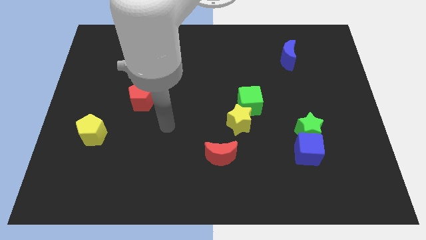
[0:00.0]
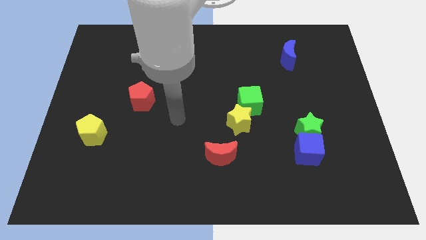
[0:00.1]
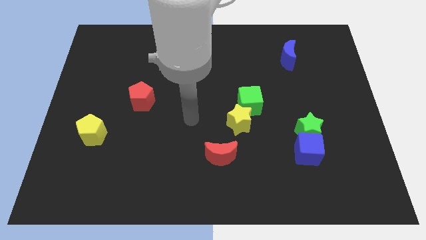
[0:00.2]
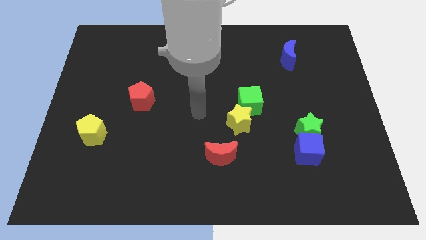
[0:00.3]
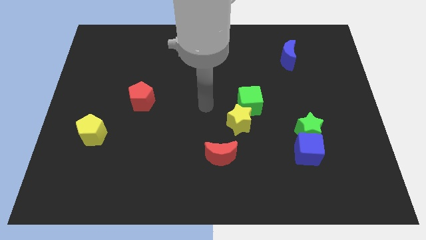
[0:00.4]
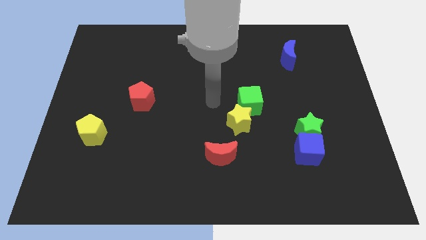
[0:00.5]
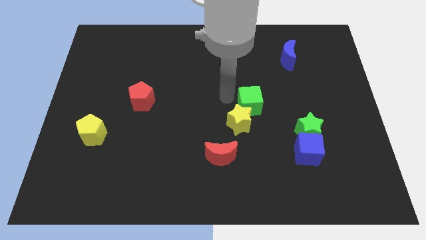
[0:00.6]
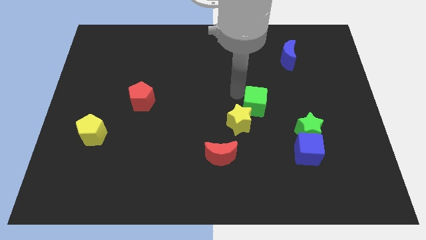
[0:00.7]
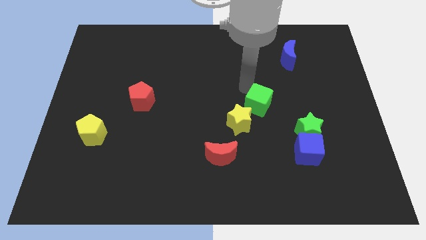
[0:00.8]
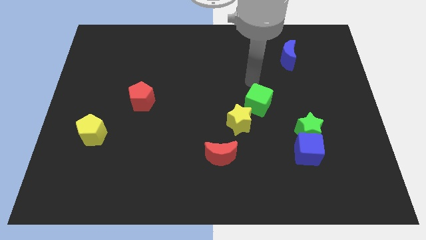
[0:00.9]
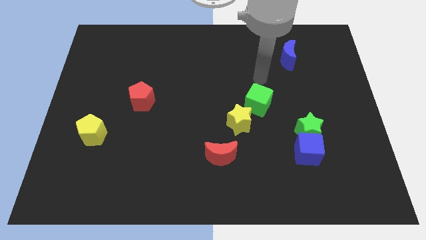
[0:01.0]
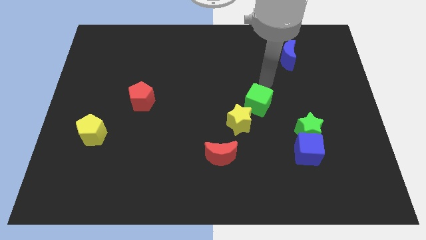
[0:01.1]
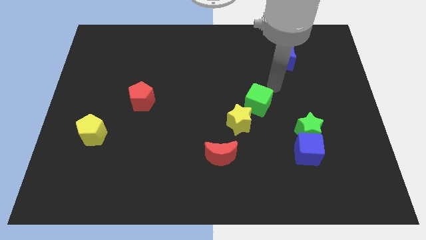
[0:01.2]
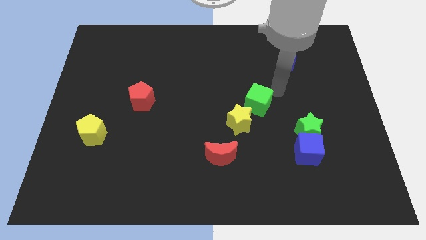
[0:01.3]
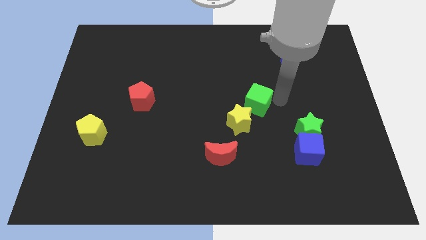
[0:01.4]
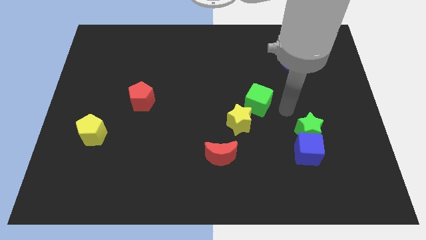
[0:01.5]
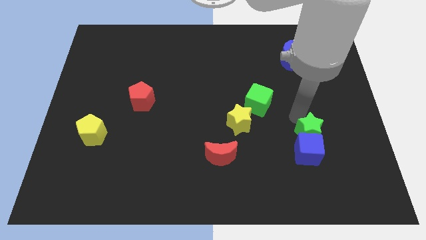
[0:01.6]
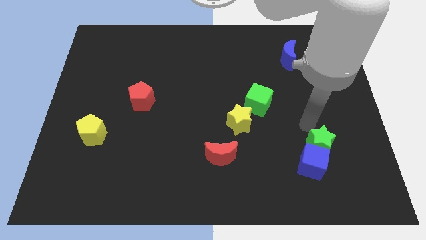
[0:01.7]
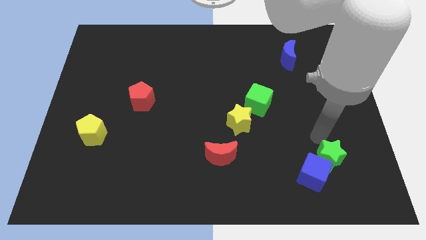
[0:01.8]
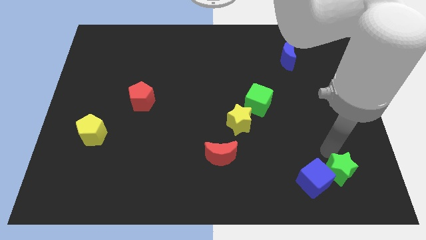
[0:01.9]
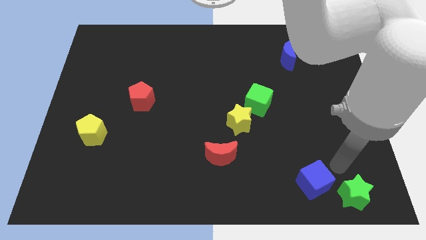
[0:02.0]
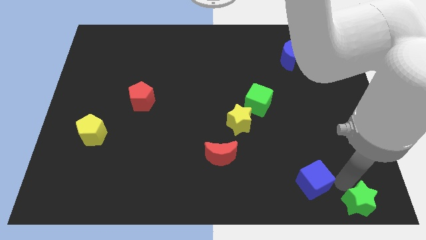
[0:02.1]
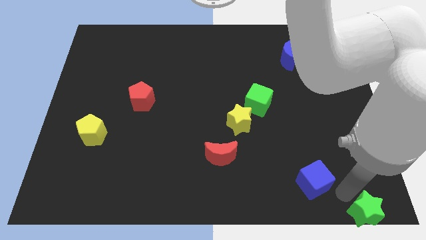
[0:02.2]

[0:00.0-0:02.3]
separate the blue cube from the green star

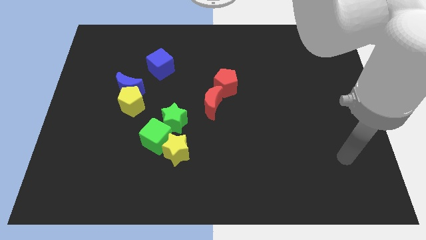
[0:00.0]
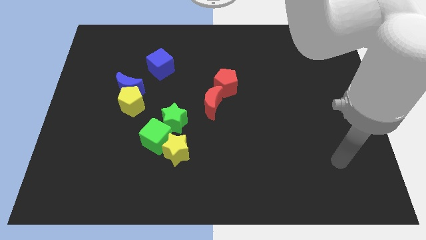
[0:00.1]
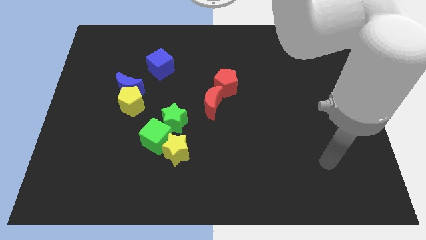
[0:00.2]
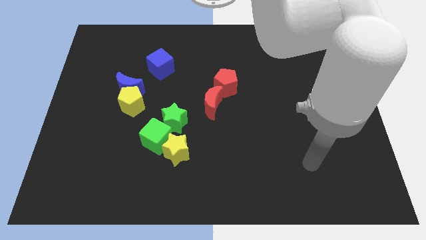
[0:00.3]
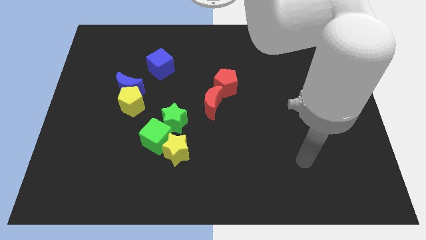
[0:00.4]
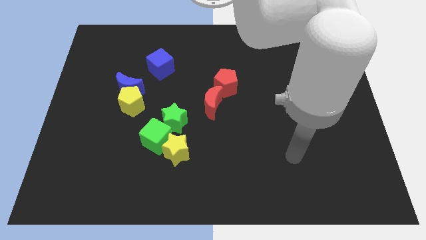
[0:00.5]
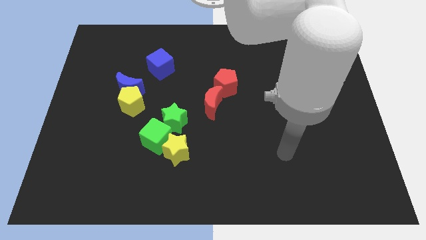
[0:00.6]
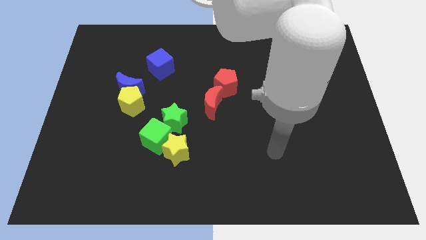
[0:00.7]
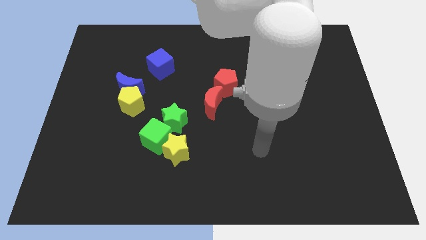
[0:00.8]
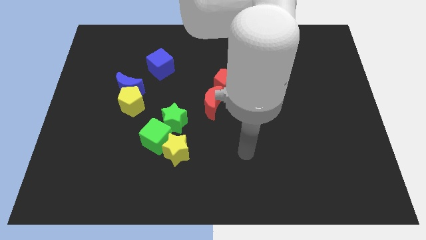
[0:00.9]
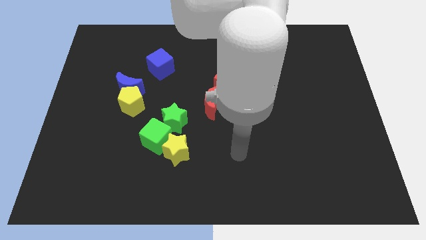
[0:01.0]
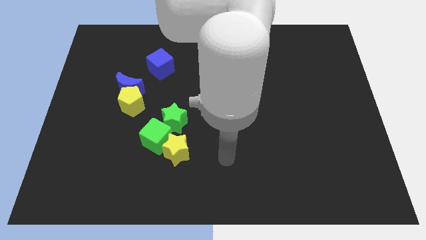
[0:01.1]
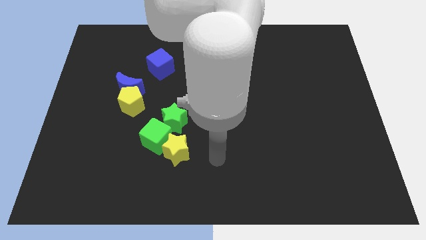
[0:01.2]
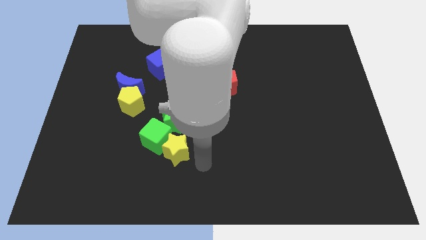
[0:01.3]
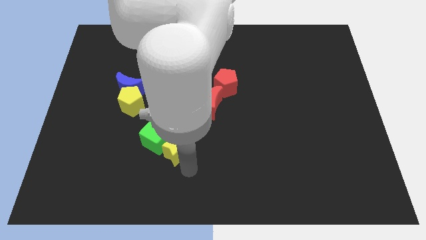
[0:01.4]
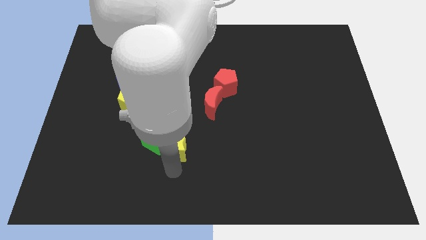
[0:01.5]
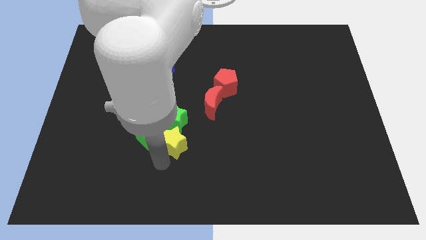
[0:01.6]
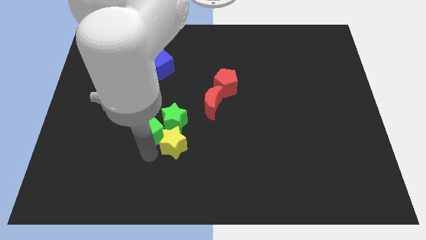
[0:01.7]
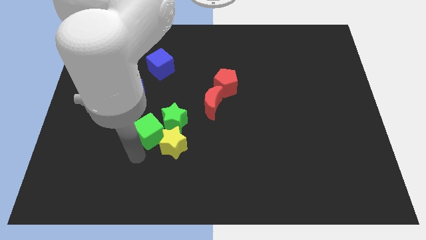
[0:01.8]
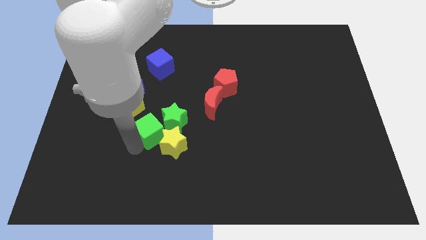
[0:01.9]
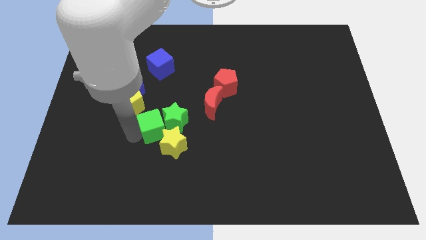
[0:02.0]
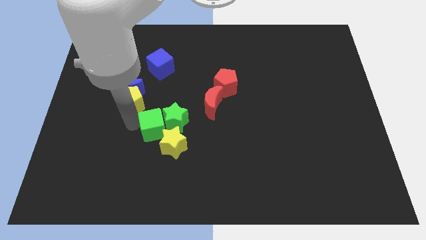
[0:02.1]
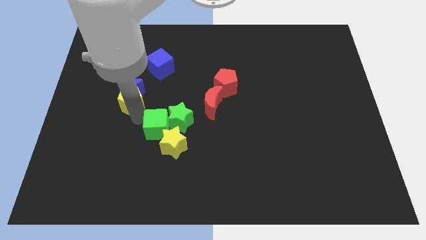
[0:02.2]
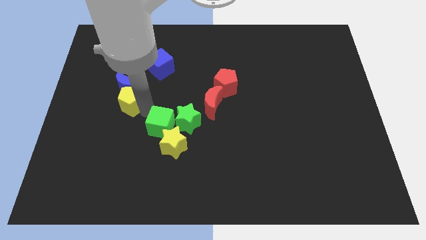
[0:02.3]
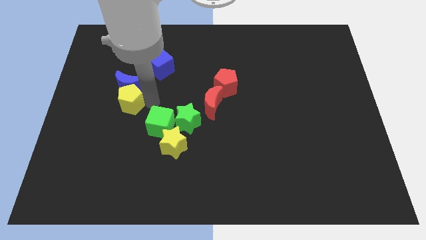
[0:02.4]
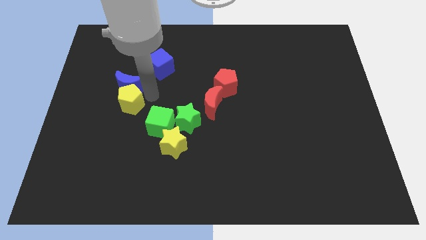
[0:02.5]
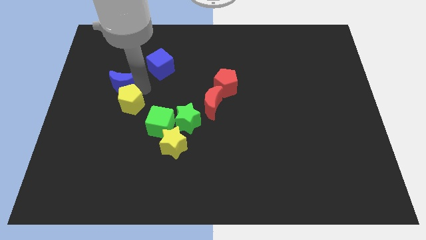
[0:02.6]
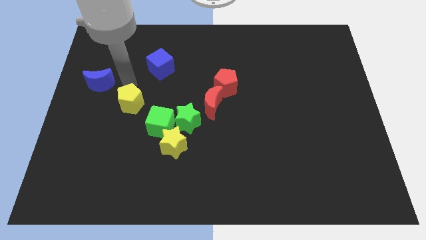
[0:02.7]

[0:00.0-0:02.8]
separate the yellow pentagon from the blue moon

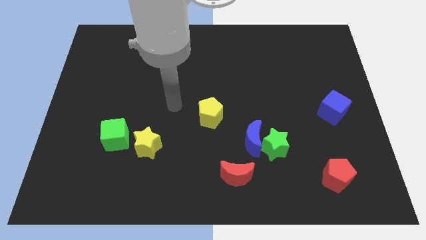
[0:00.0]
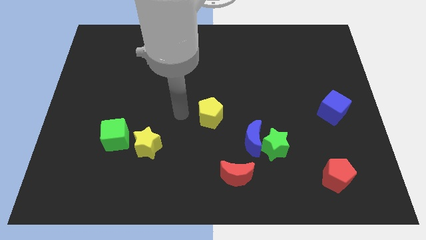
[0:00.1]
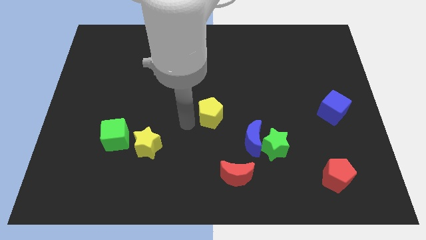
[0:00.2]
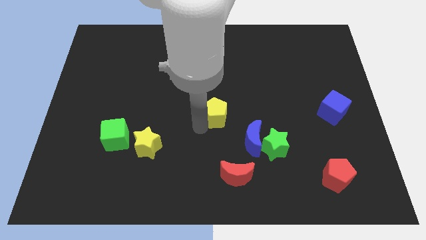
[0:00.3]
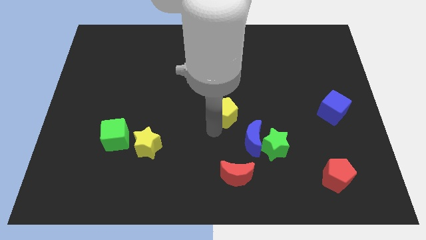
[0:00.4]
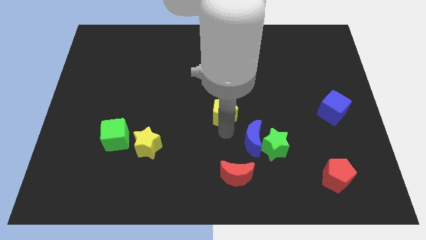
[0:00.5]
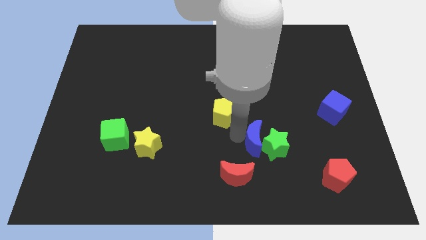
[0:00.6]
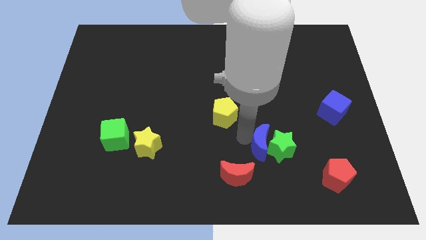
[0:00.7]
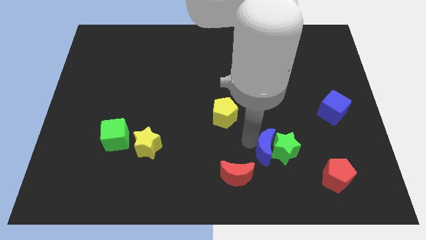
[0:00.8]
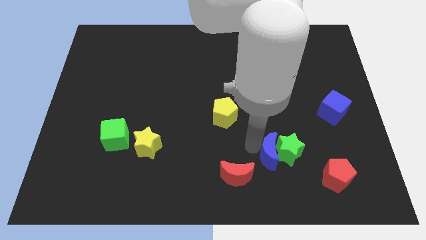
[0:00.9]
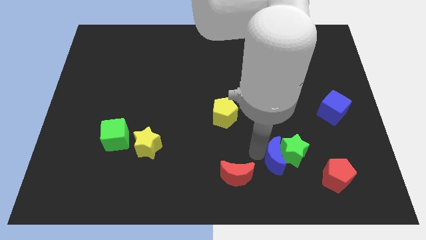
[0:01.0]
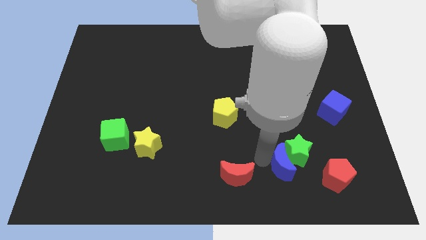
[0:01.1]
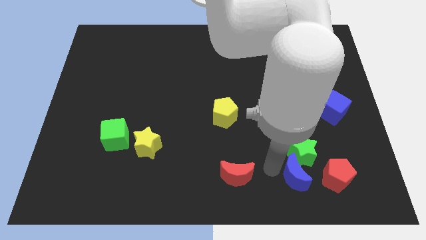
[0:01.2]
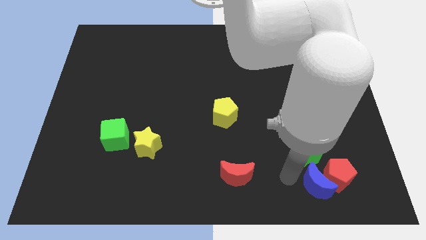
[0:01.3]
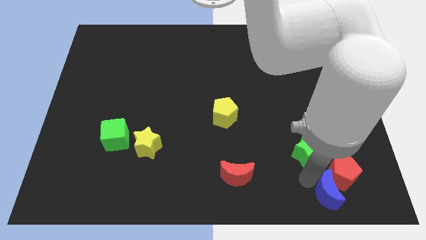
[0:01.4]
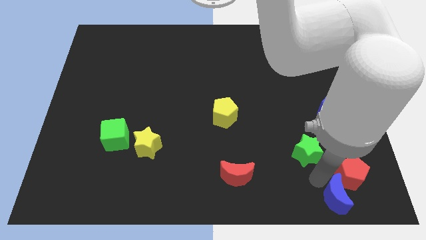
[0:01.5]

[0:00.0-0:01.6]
separate the green star from the blue moon

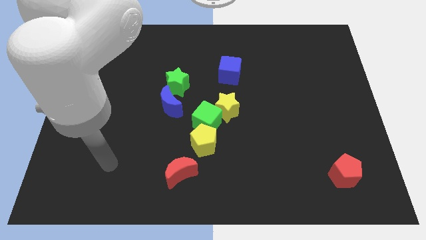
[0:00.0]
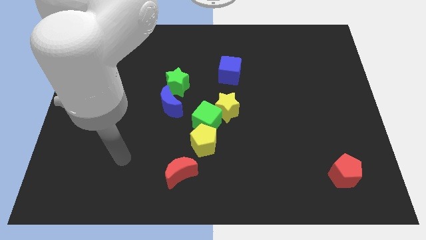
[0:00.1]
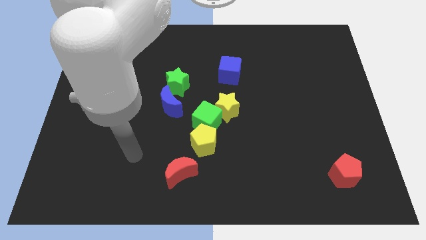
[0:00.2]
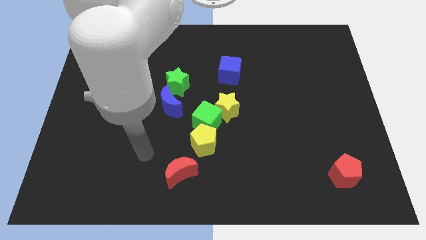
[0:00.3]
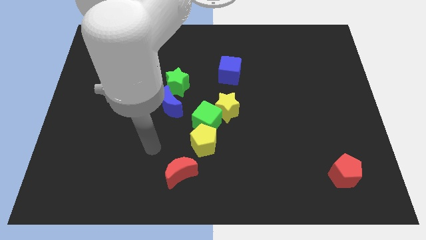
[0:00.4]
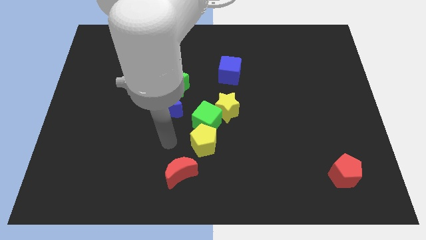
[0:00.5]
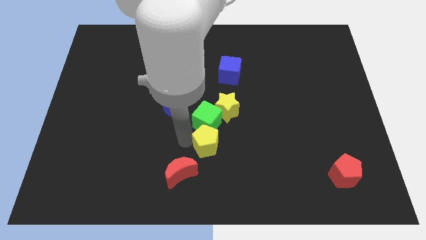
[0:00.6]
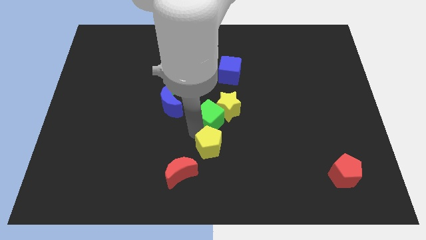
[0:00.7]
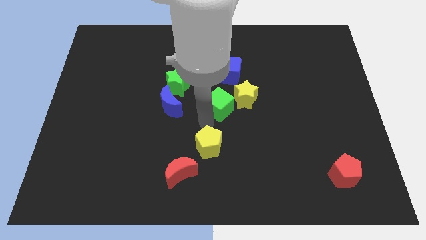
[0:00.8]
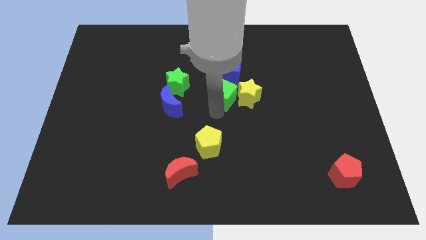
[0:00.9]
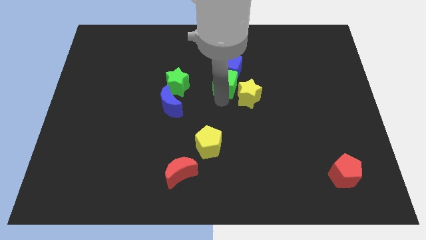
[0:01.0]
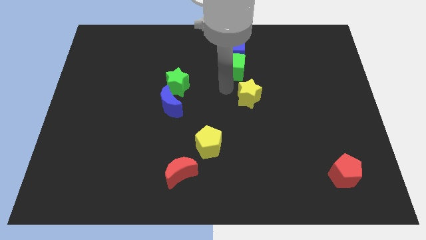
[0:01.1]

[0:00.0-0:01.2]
move the yellow star away from the green cube

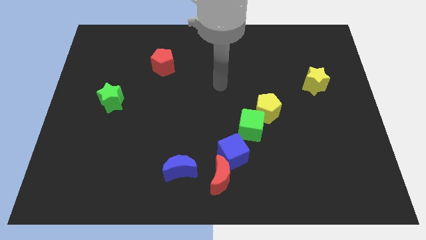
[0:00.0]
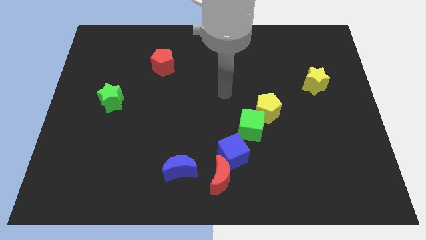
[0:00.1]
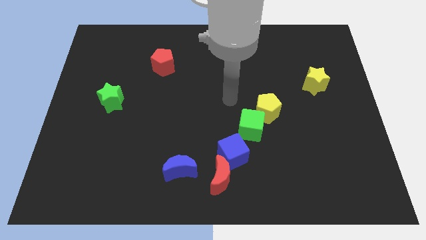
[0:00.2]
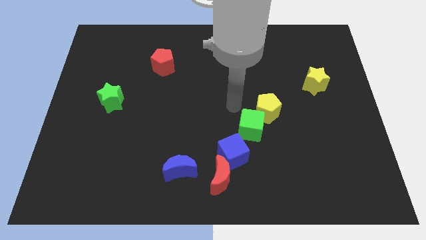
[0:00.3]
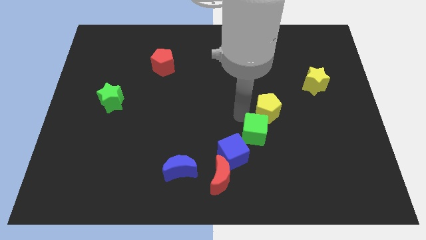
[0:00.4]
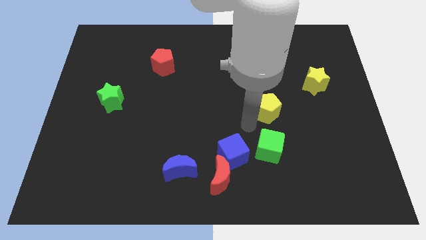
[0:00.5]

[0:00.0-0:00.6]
separate the yellow pentagon from the green cube

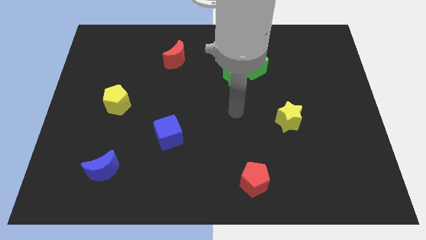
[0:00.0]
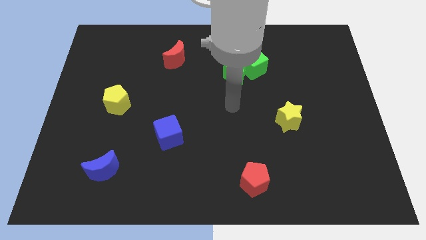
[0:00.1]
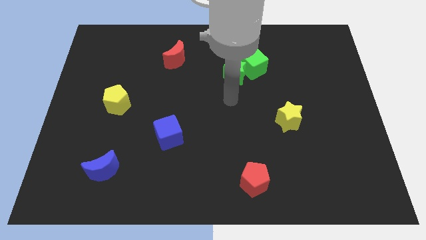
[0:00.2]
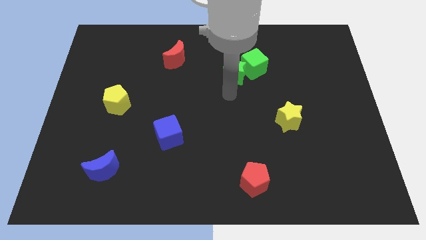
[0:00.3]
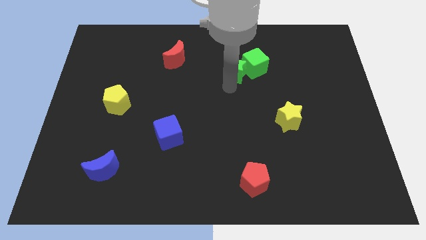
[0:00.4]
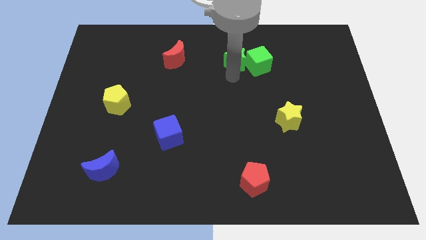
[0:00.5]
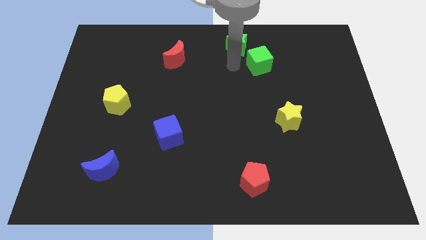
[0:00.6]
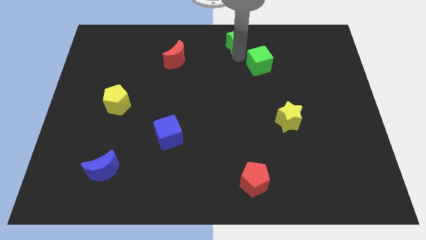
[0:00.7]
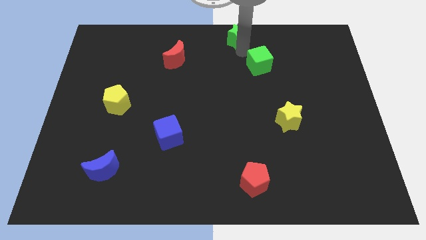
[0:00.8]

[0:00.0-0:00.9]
separate the green cube from the green star
